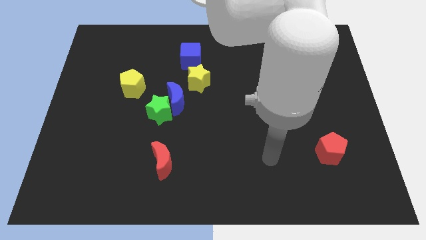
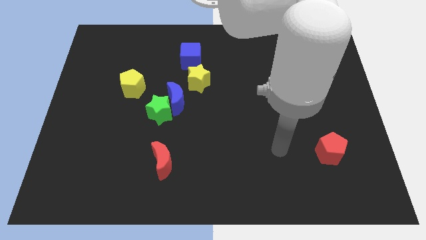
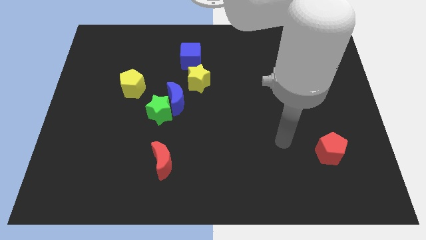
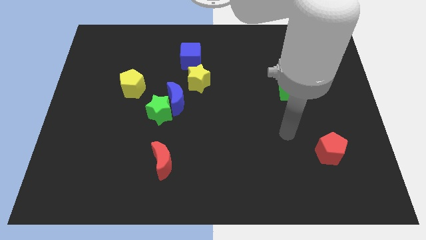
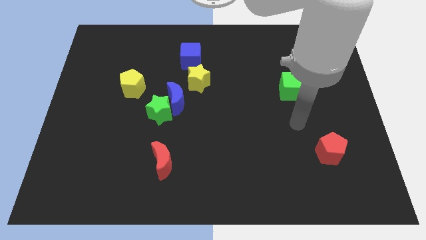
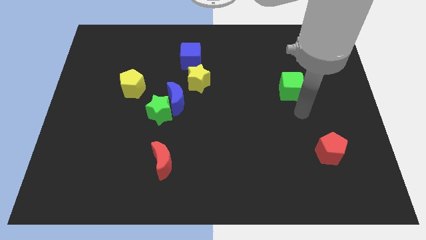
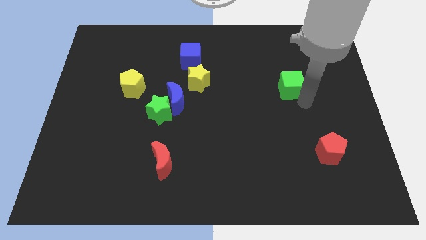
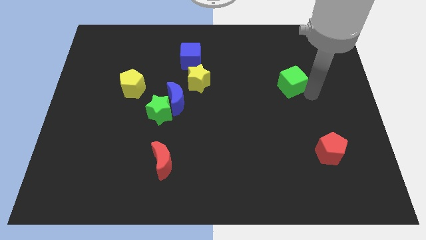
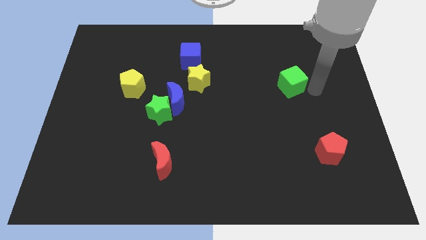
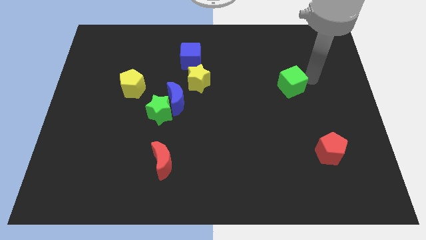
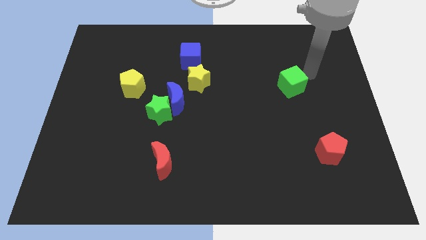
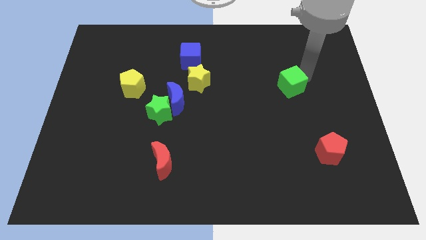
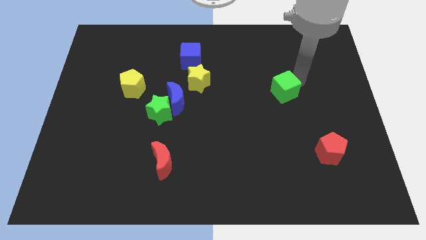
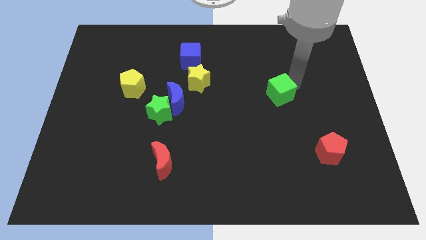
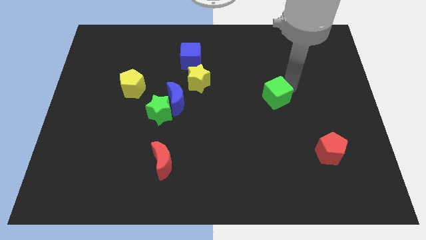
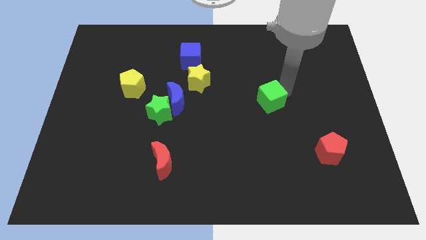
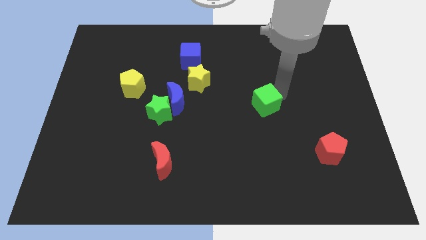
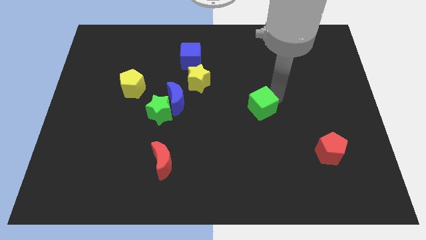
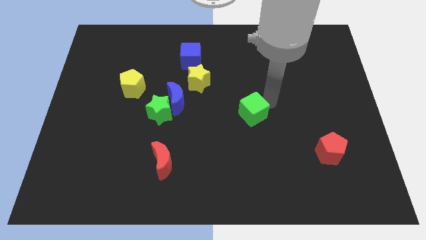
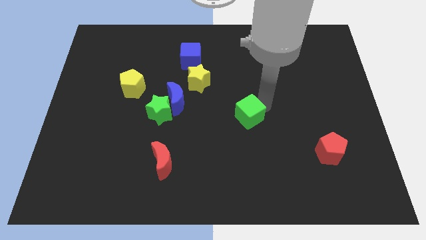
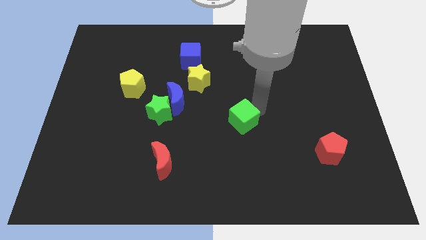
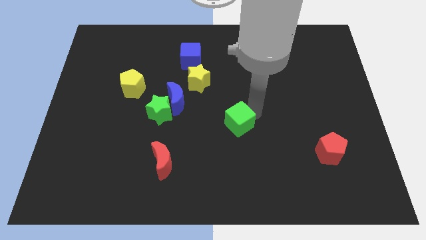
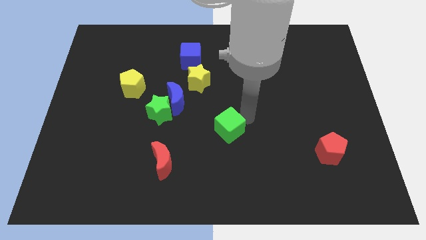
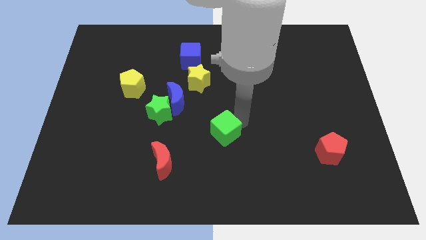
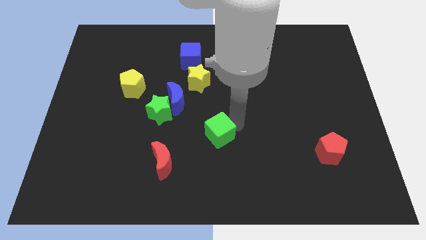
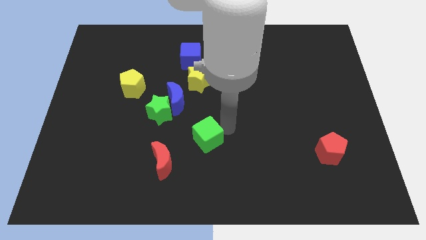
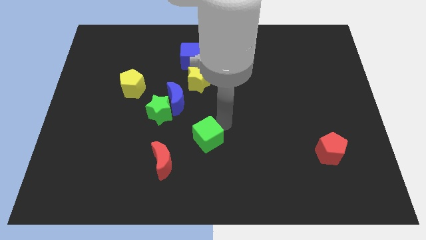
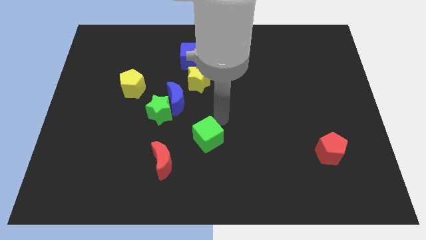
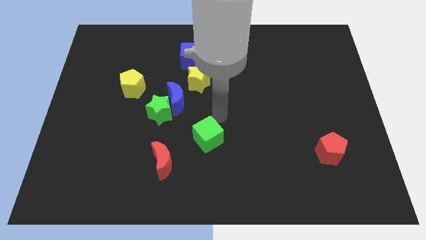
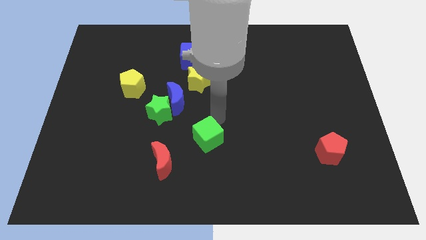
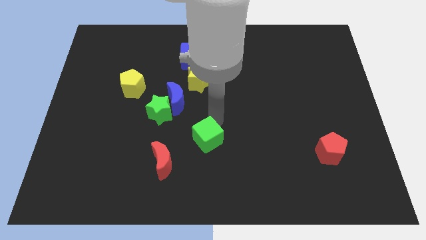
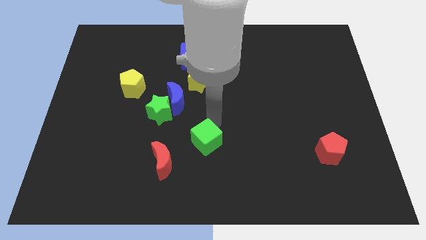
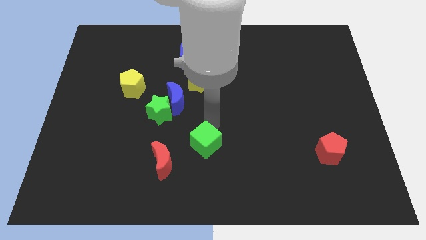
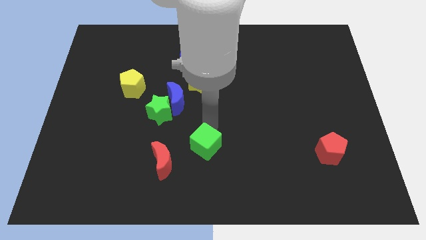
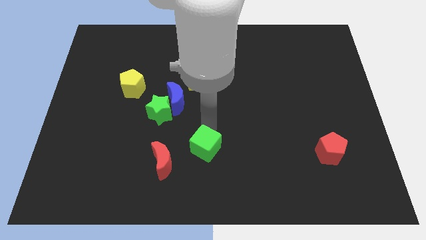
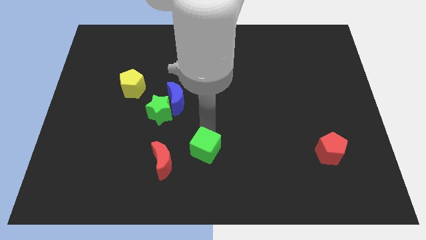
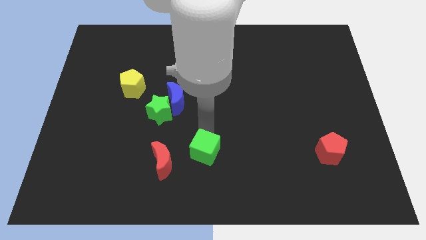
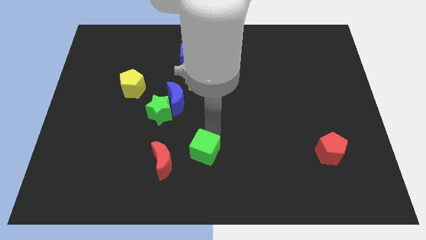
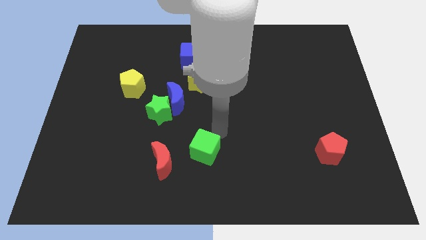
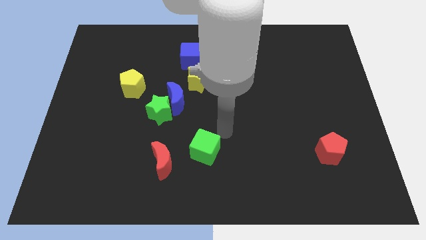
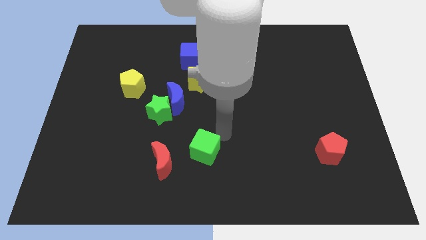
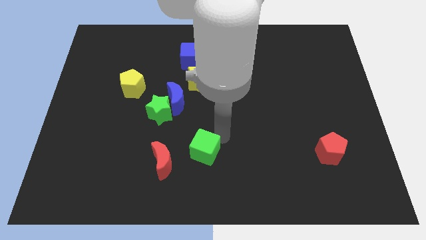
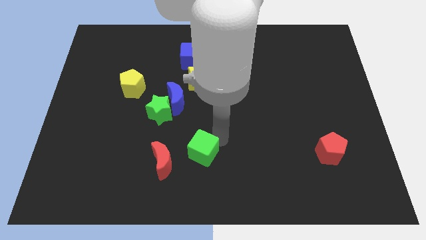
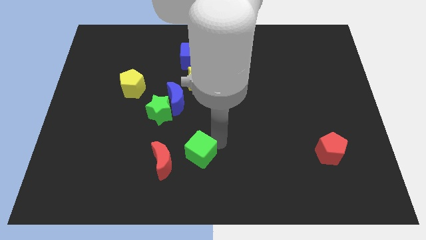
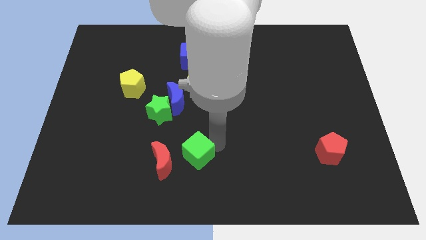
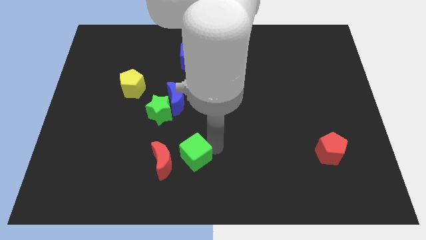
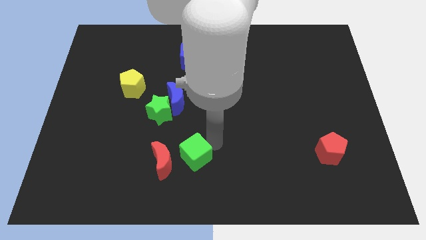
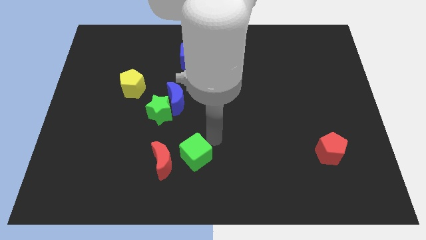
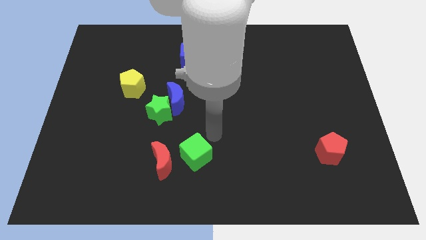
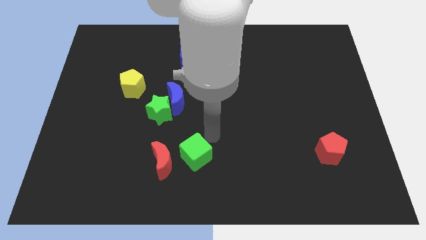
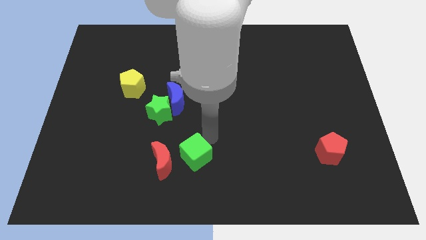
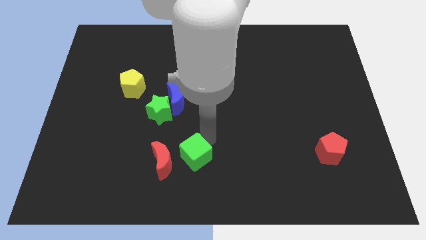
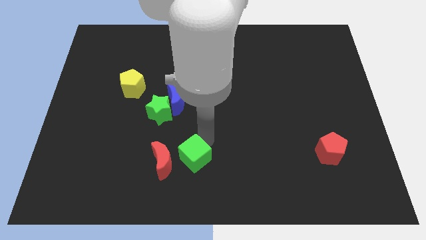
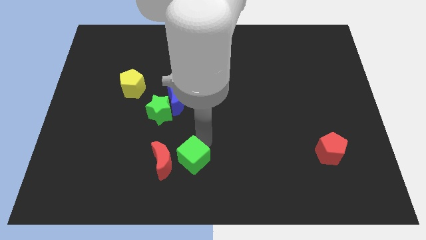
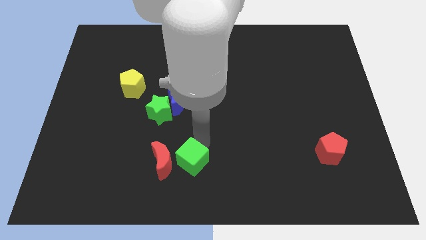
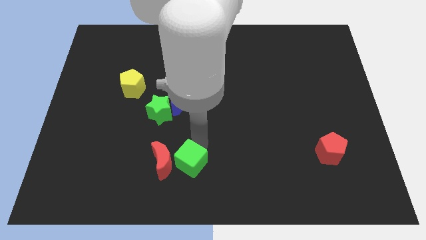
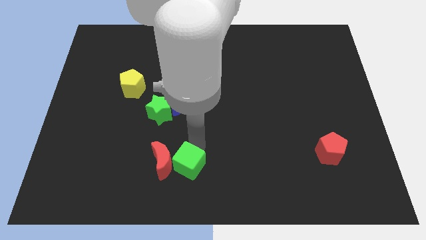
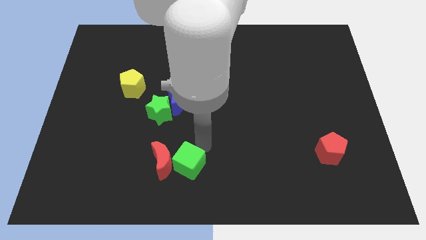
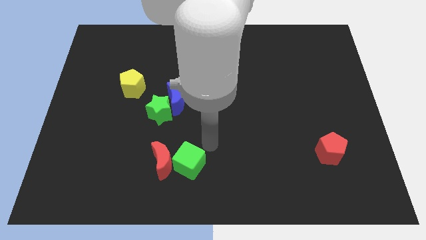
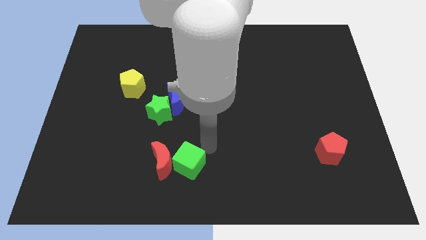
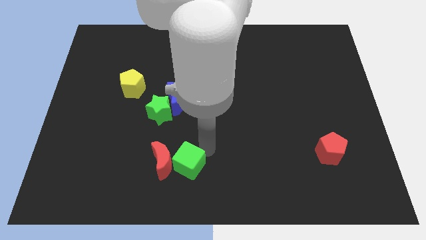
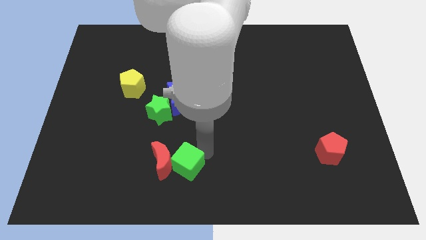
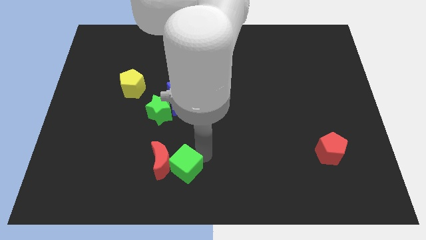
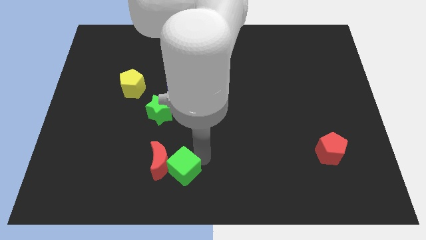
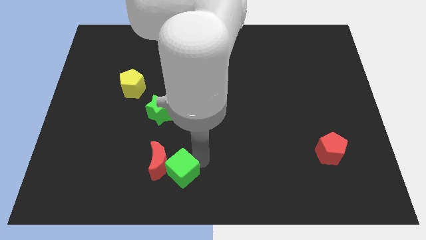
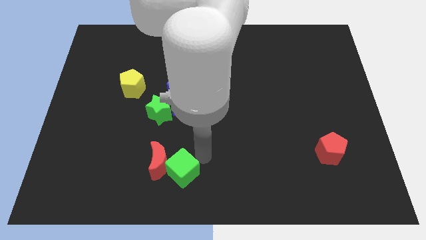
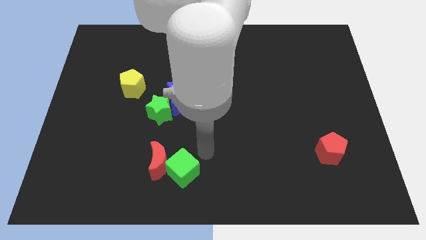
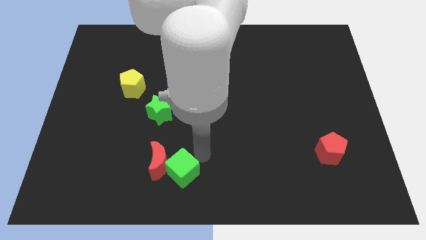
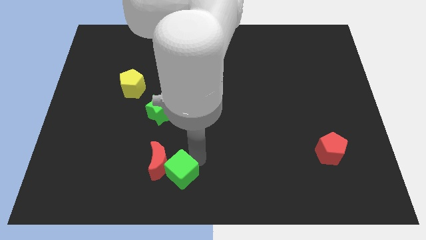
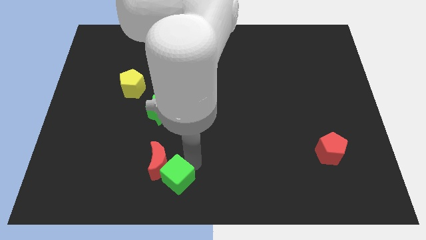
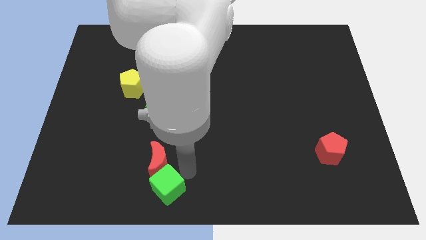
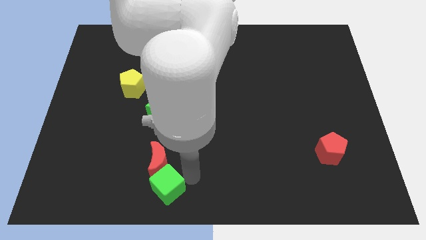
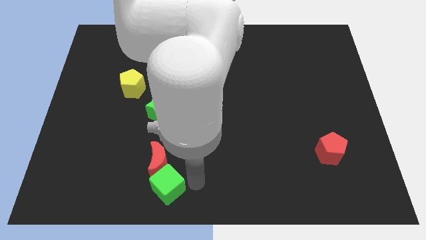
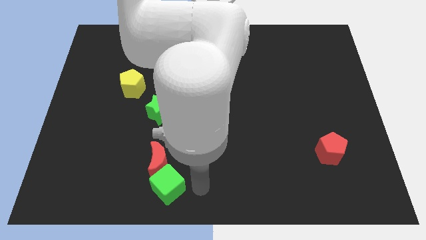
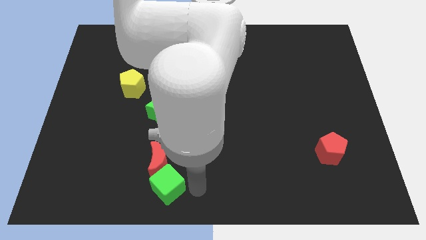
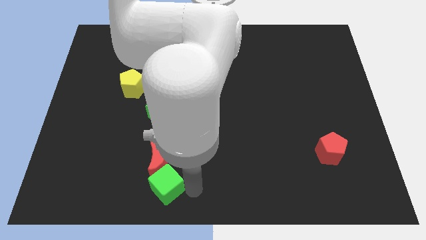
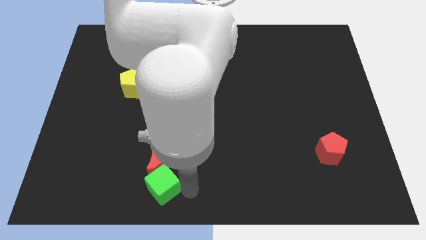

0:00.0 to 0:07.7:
slide the green cube to the bottom left side of the red moon
